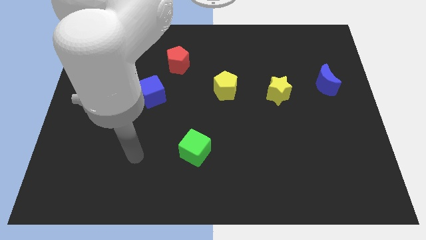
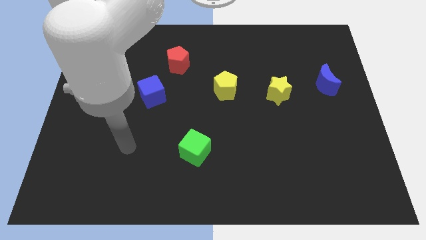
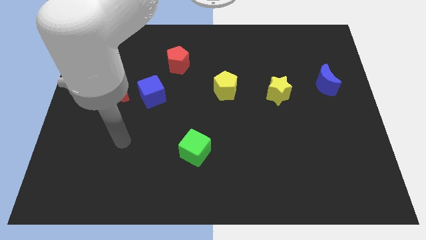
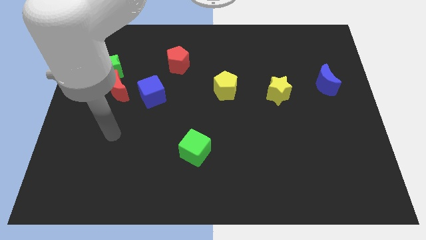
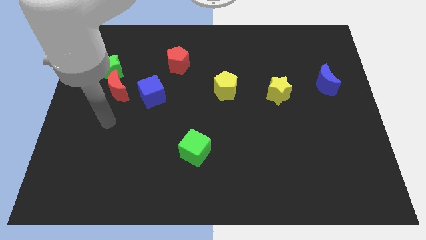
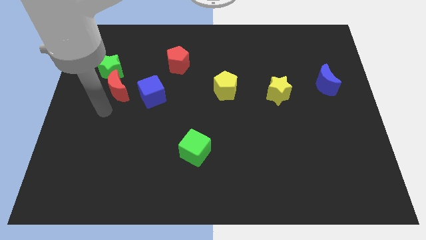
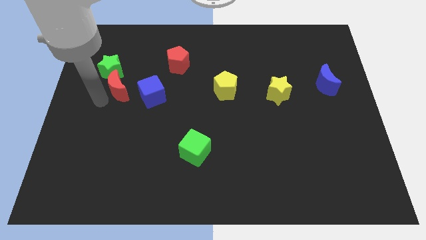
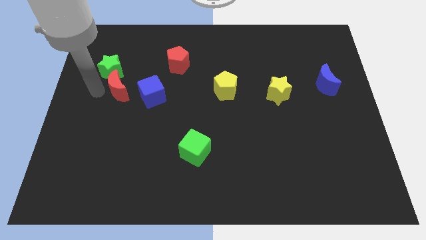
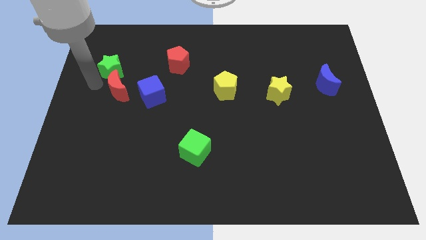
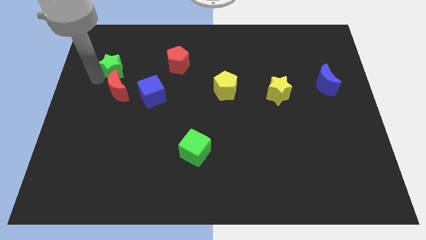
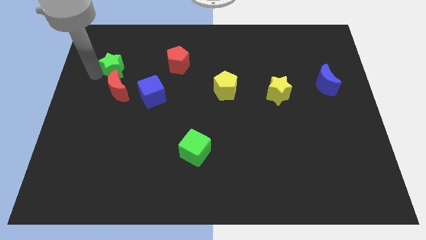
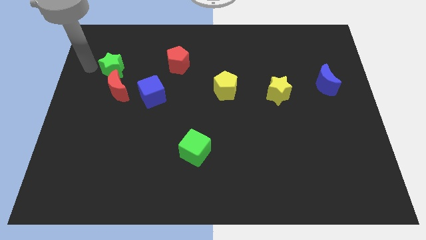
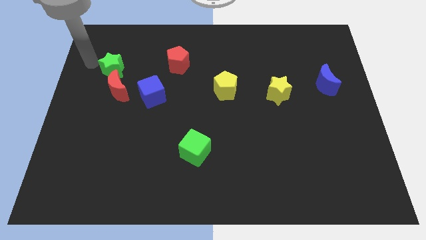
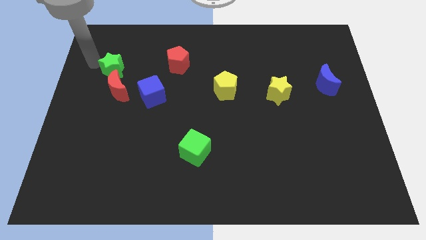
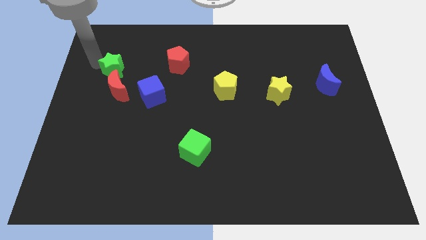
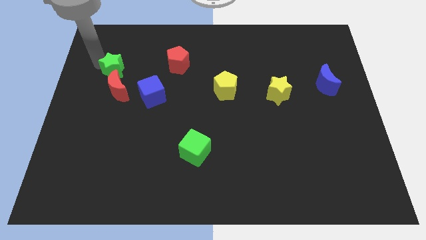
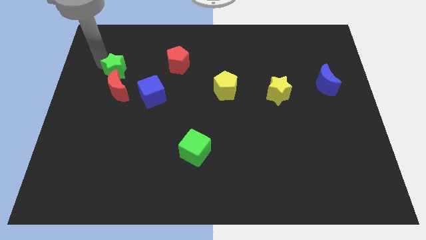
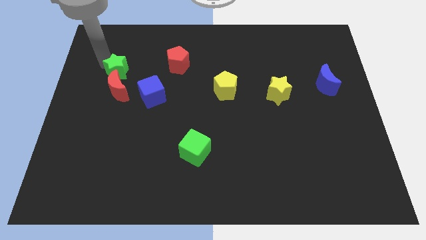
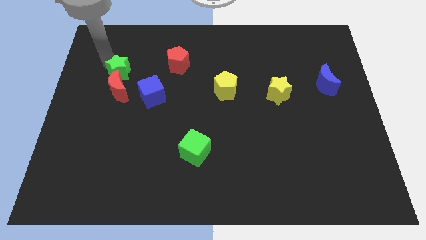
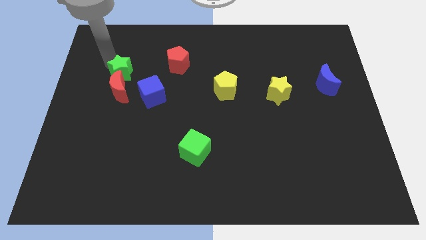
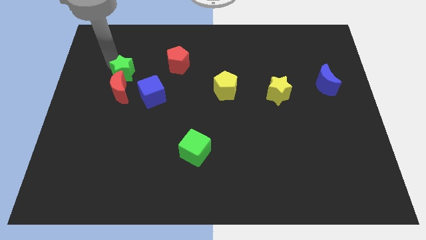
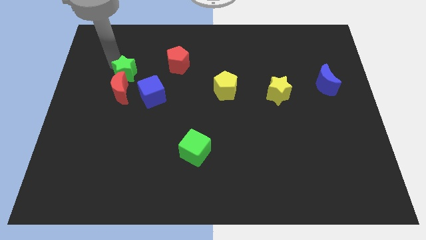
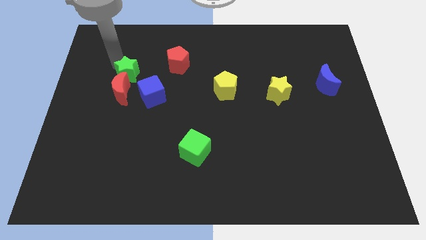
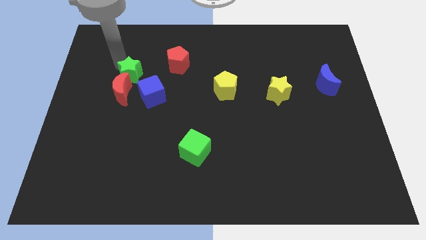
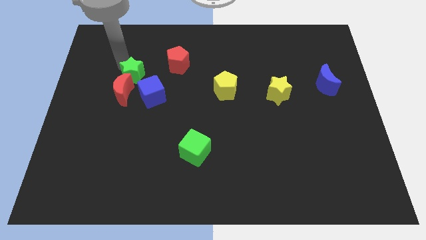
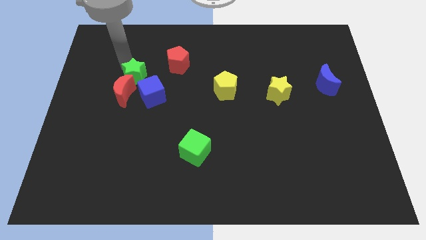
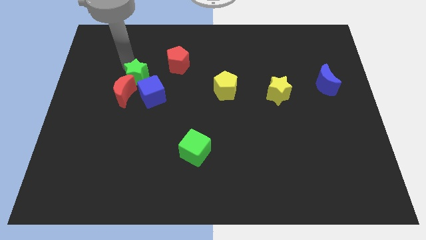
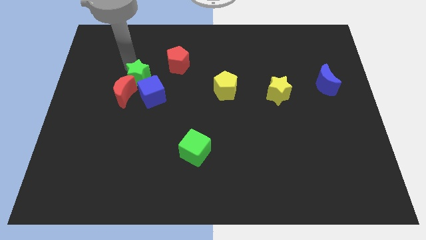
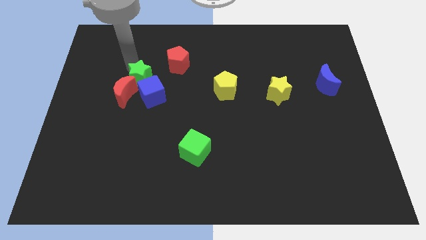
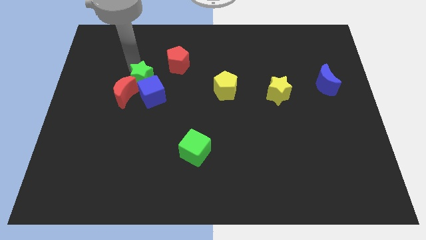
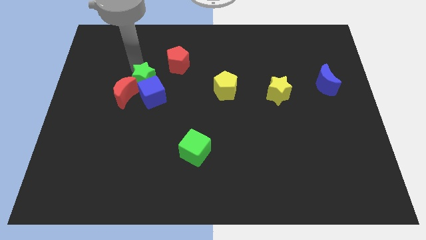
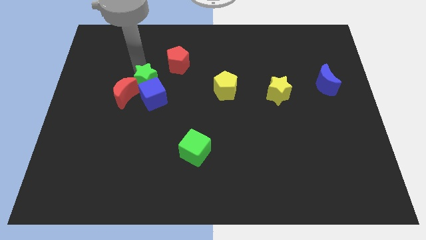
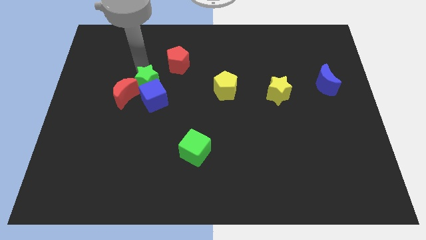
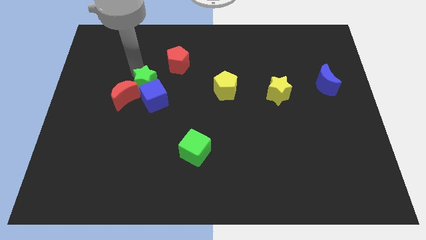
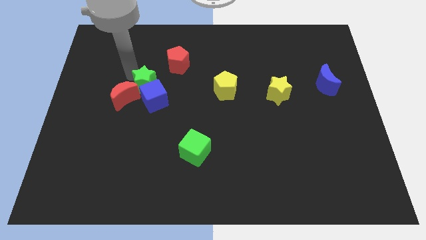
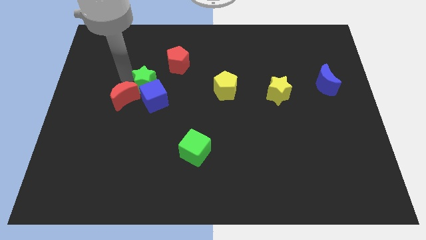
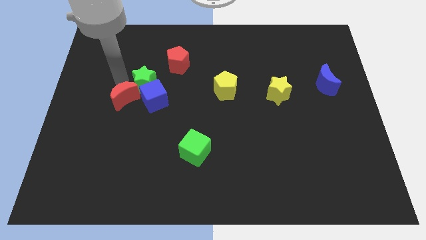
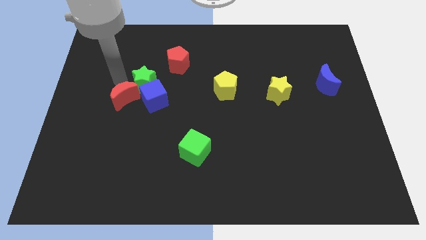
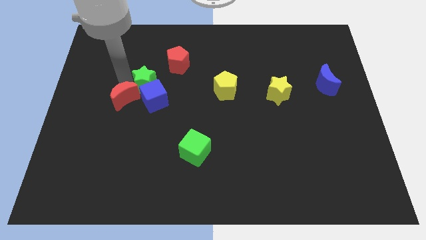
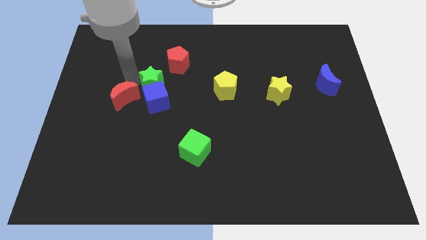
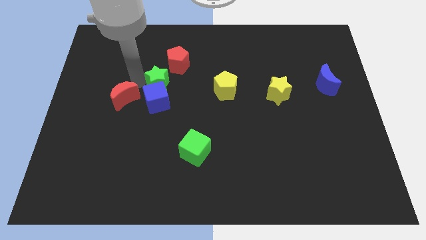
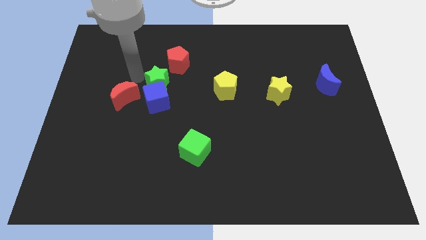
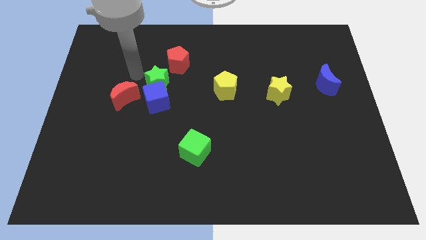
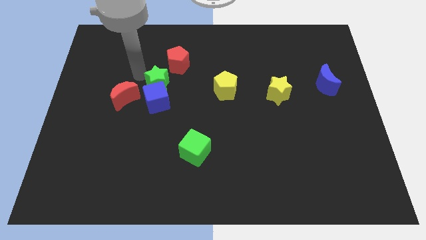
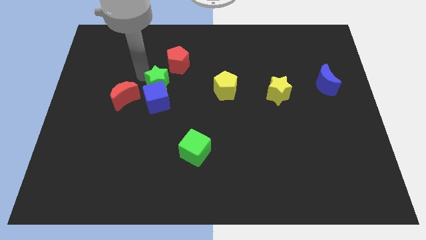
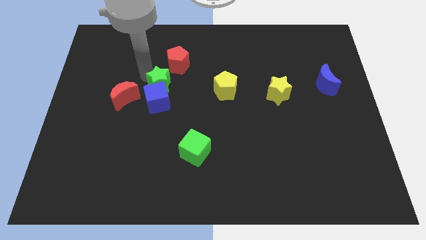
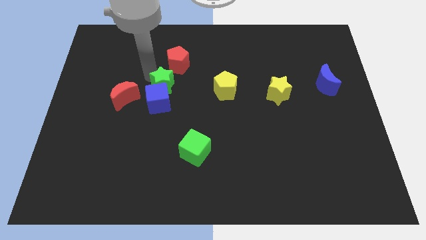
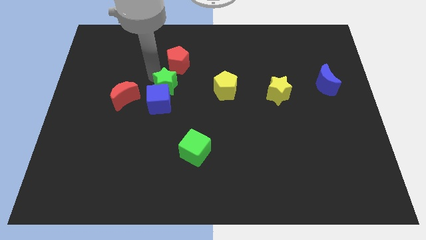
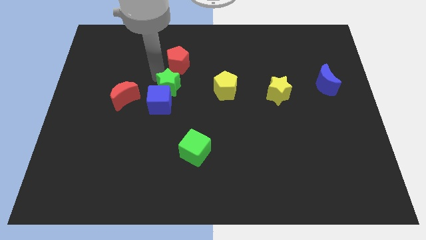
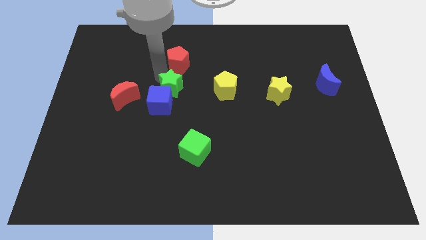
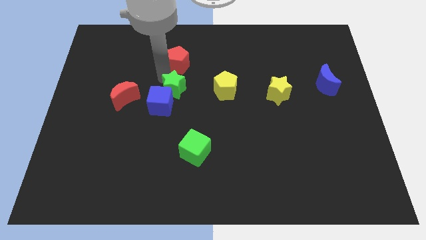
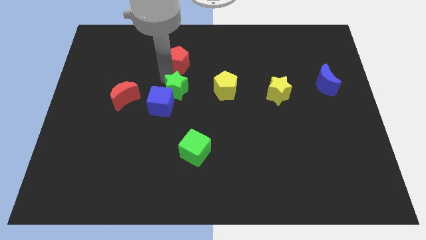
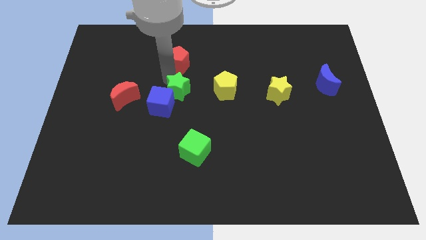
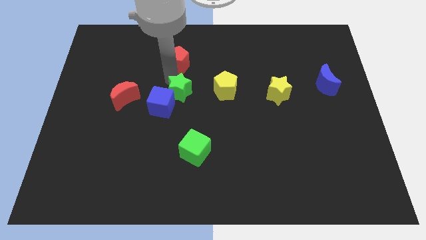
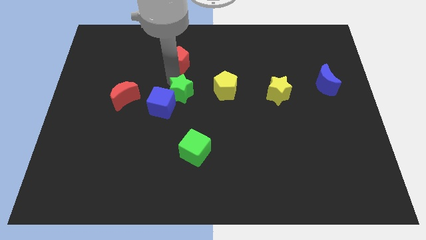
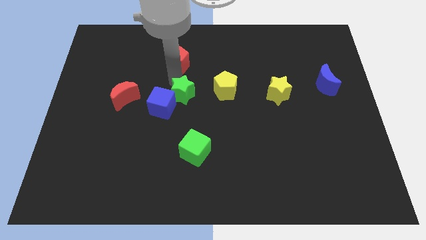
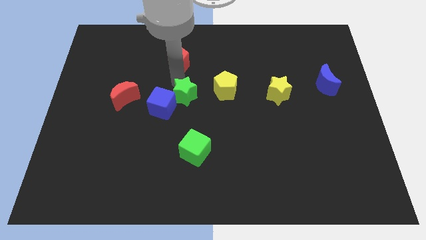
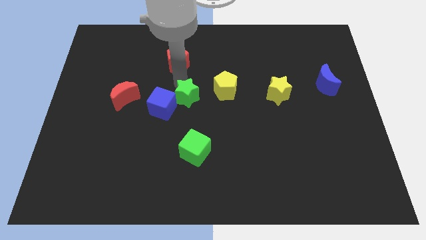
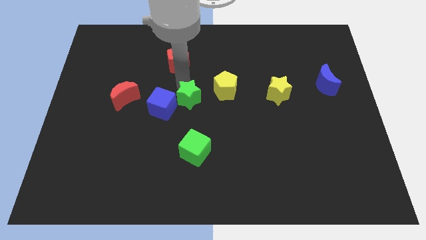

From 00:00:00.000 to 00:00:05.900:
slide the green star diagonally down and to the left of the yellow pentagon
